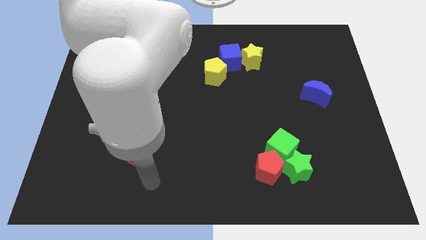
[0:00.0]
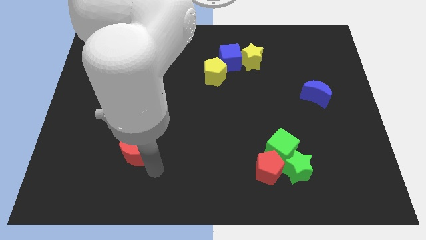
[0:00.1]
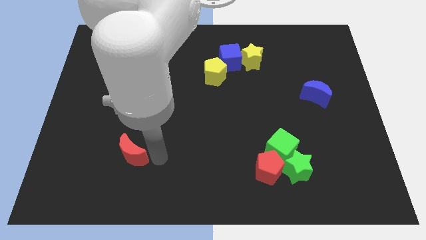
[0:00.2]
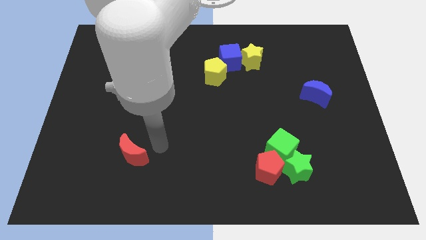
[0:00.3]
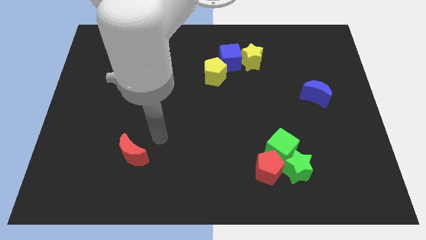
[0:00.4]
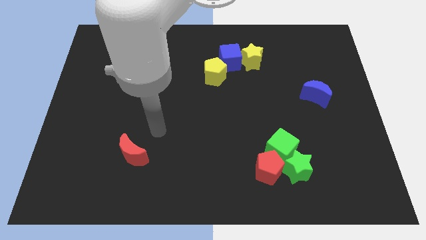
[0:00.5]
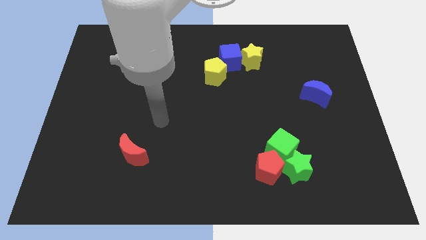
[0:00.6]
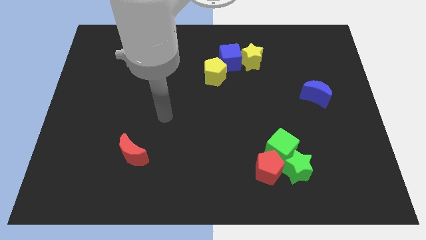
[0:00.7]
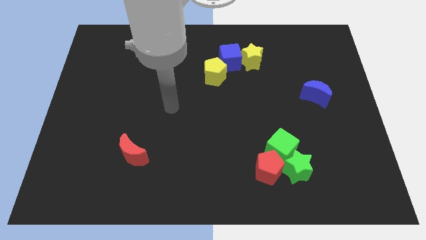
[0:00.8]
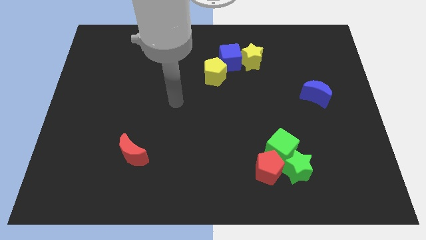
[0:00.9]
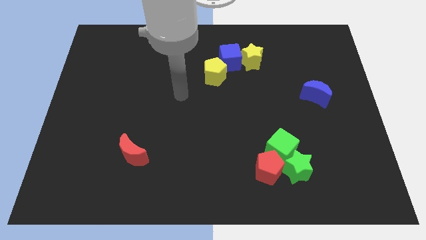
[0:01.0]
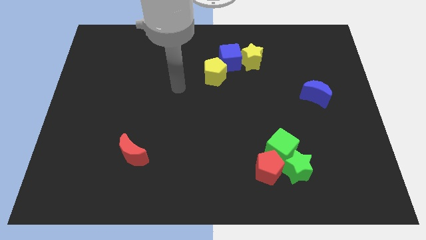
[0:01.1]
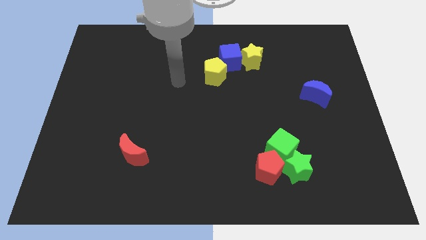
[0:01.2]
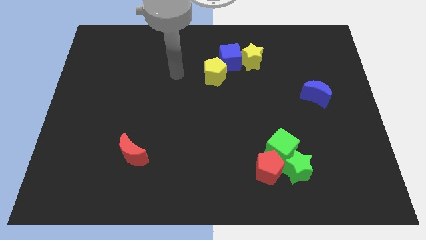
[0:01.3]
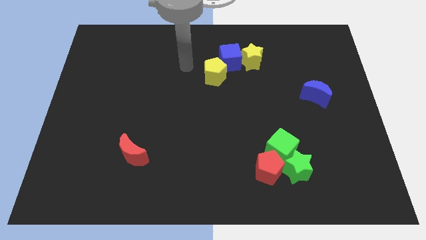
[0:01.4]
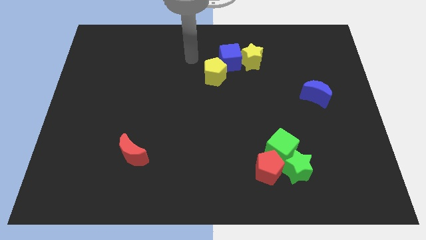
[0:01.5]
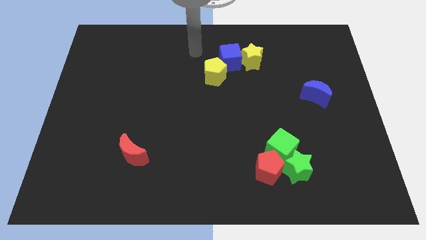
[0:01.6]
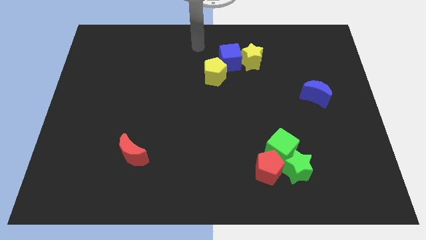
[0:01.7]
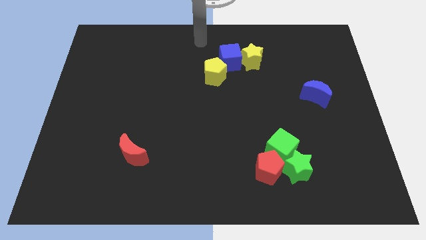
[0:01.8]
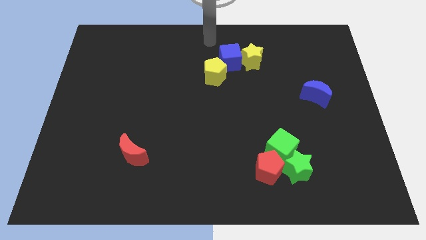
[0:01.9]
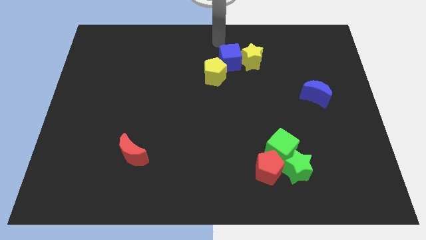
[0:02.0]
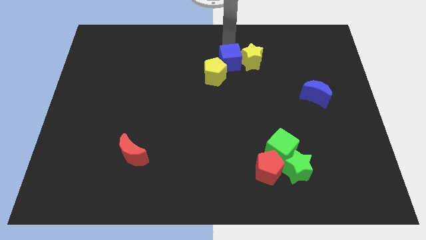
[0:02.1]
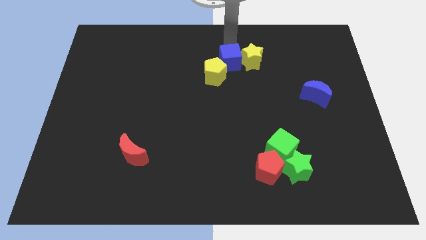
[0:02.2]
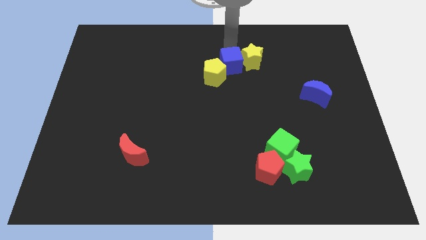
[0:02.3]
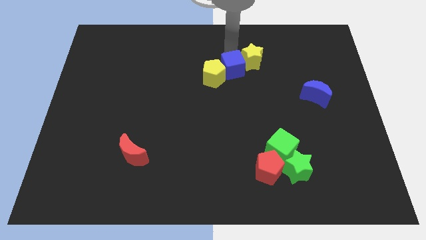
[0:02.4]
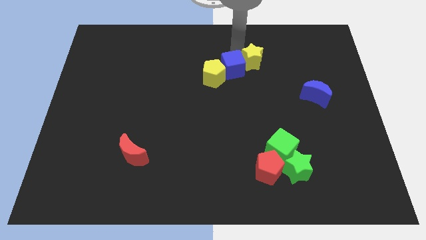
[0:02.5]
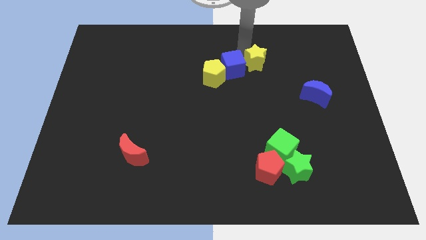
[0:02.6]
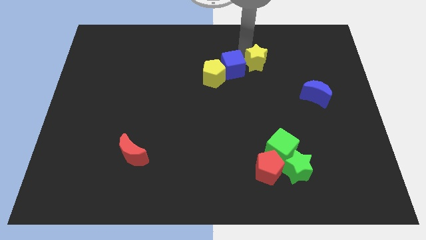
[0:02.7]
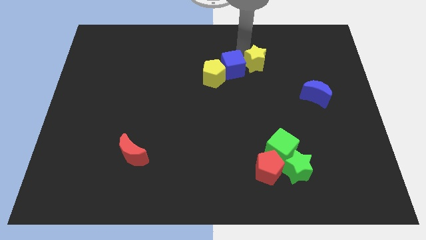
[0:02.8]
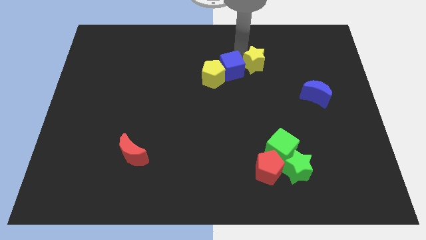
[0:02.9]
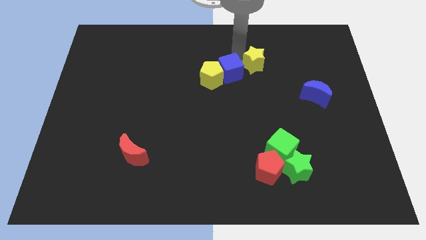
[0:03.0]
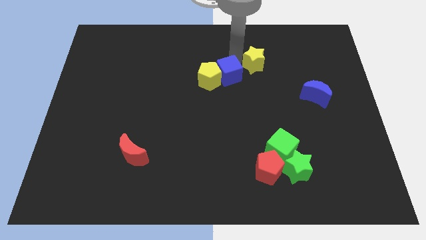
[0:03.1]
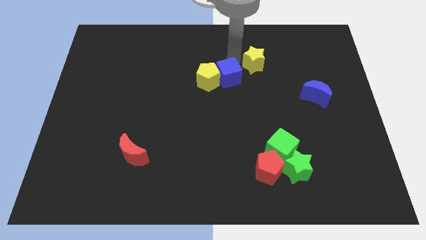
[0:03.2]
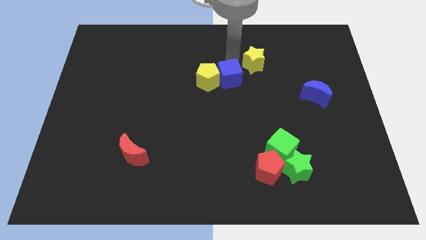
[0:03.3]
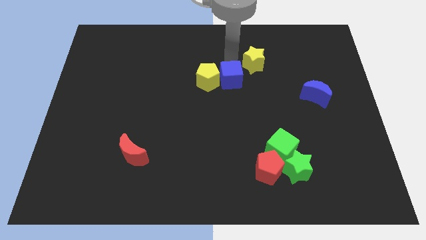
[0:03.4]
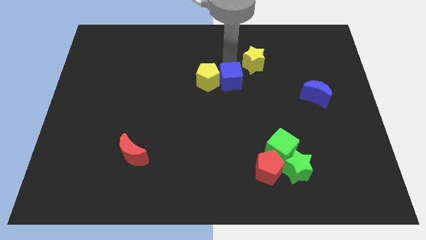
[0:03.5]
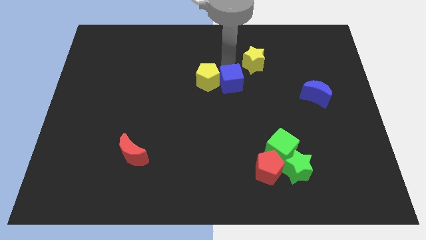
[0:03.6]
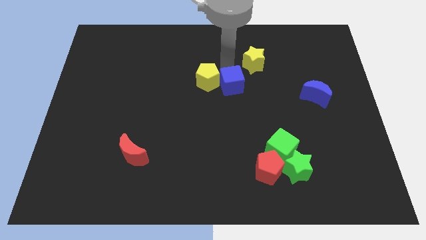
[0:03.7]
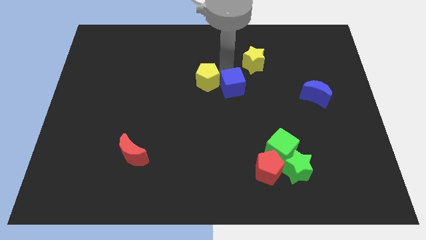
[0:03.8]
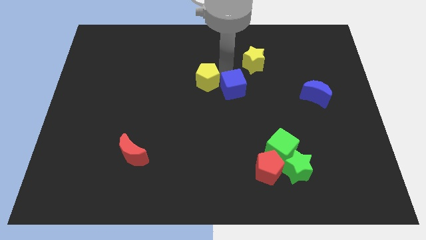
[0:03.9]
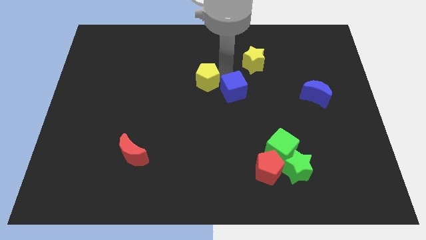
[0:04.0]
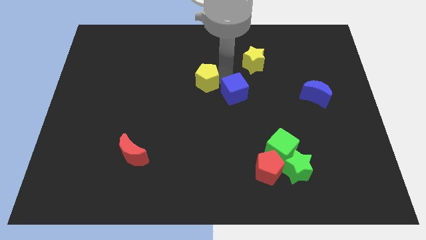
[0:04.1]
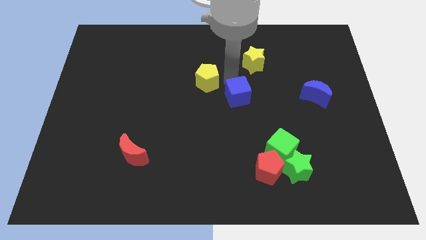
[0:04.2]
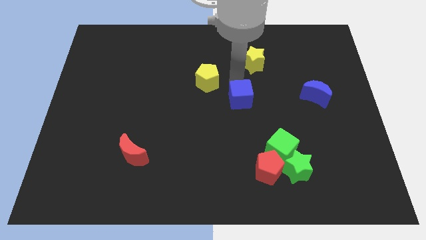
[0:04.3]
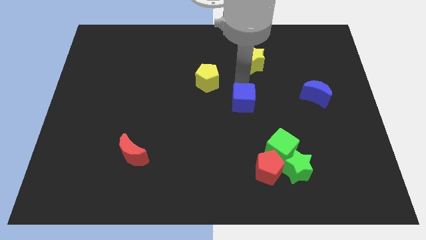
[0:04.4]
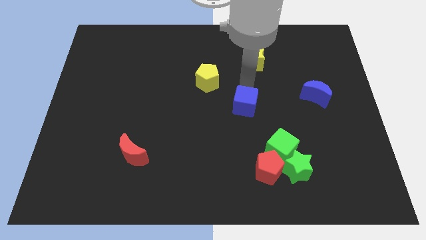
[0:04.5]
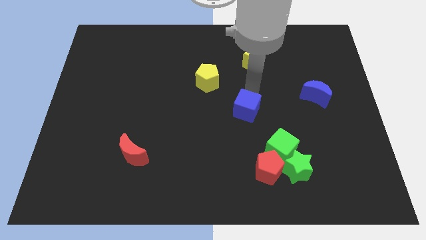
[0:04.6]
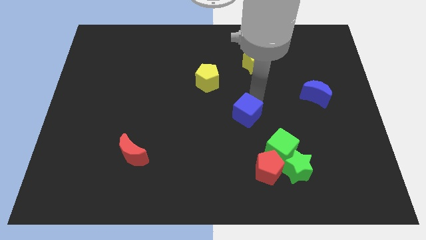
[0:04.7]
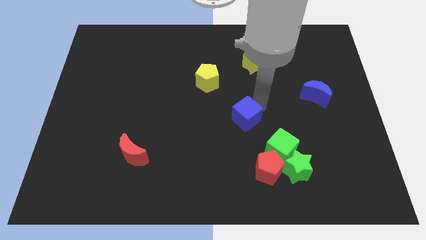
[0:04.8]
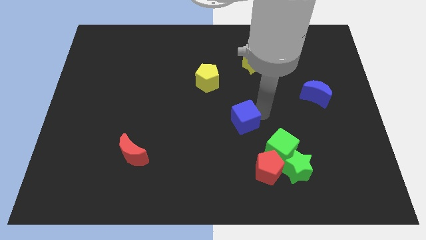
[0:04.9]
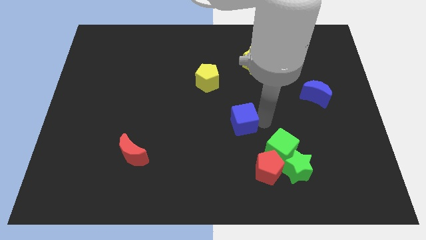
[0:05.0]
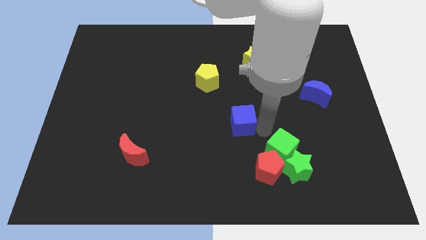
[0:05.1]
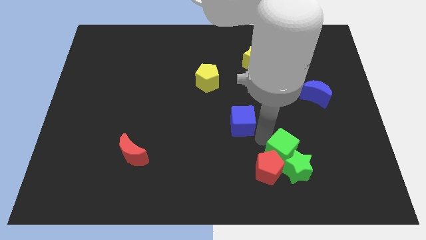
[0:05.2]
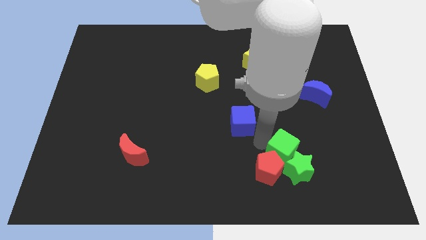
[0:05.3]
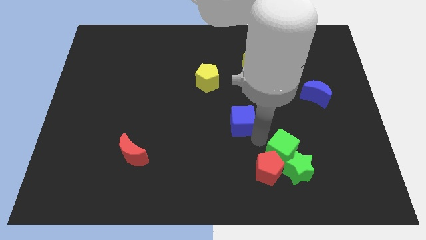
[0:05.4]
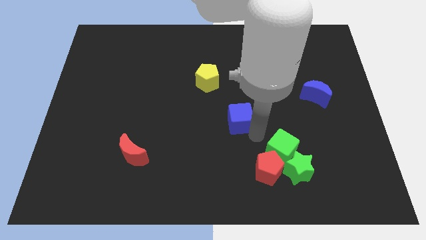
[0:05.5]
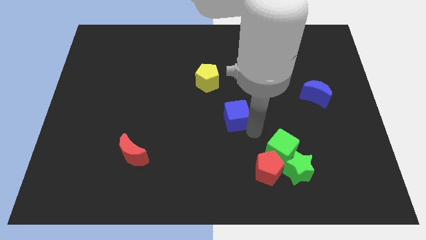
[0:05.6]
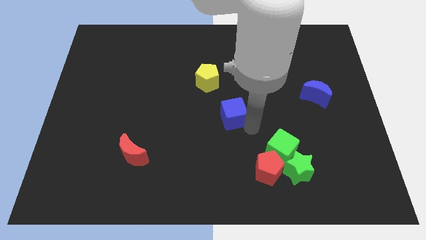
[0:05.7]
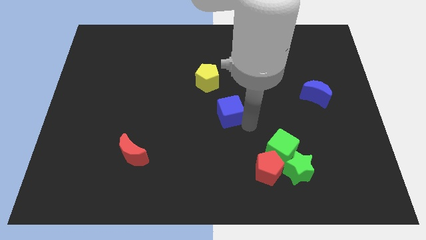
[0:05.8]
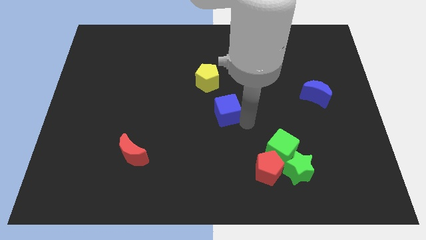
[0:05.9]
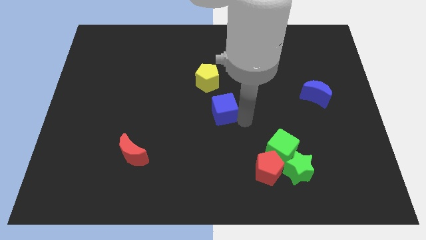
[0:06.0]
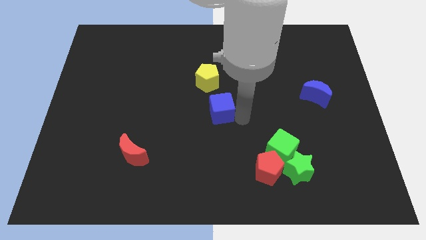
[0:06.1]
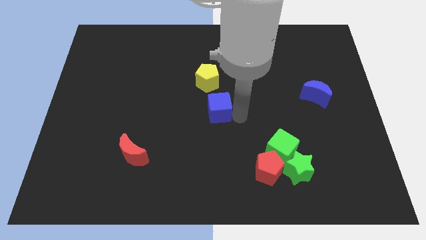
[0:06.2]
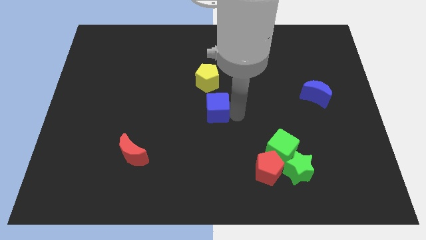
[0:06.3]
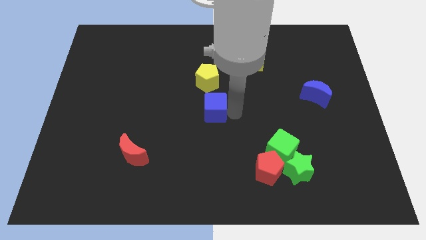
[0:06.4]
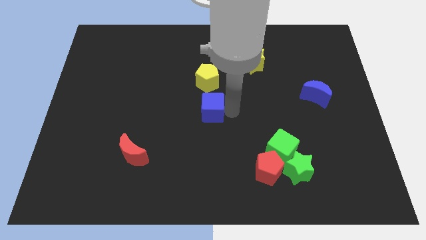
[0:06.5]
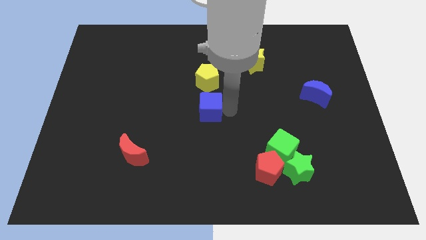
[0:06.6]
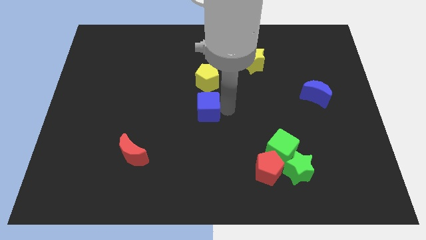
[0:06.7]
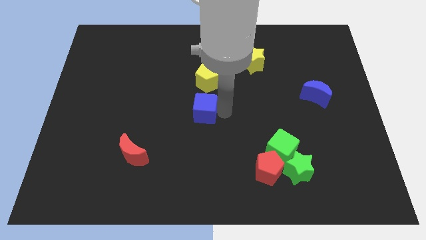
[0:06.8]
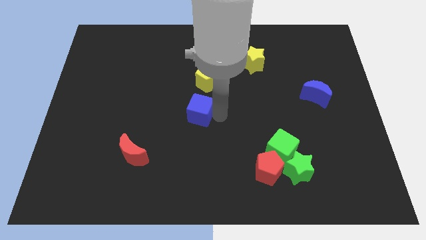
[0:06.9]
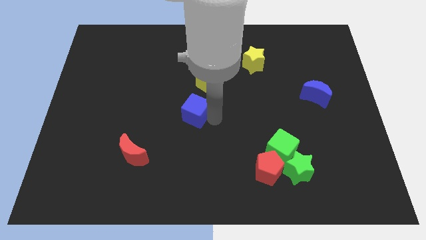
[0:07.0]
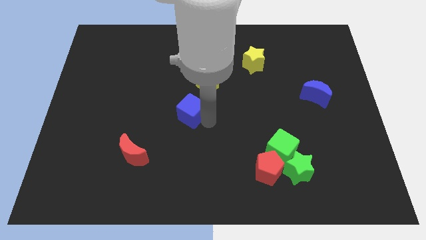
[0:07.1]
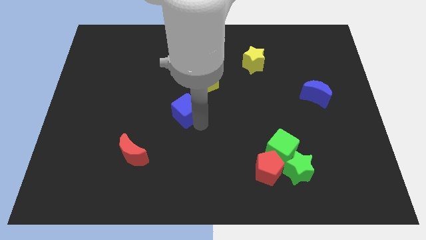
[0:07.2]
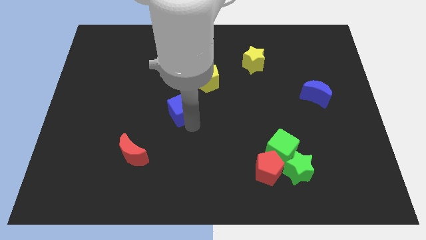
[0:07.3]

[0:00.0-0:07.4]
move the blue cube downwards and left

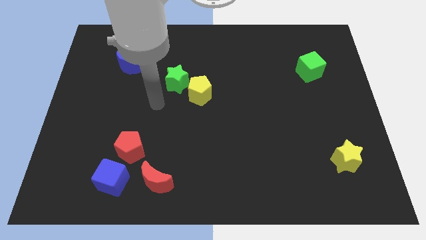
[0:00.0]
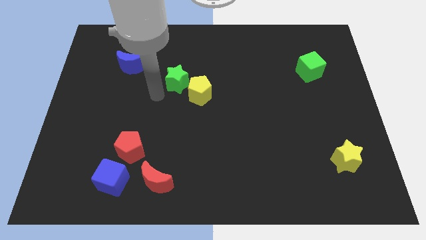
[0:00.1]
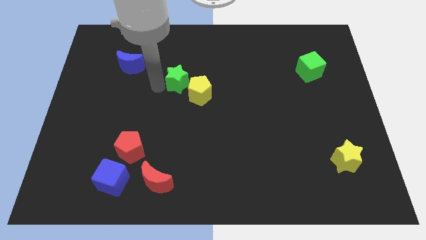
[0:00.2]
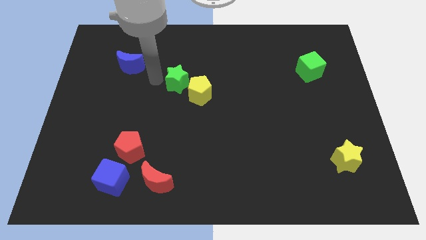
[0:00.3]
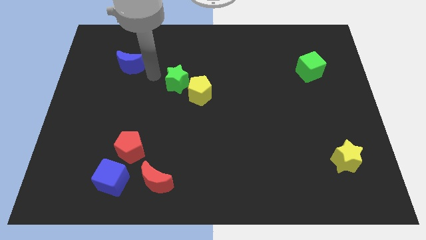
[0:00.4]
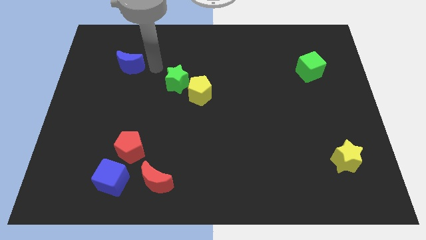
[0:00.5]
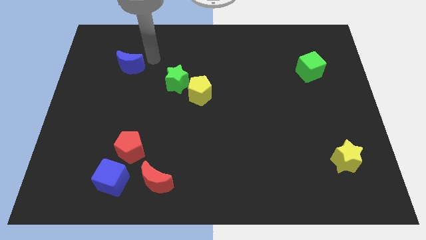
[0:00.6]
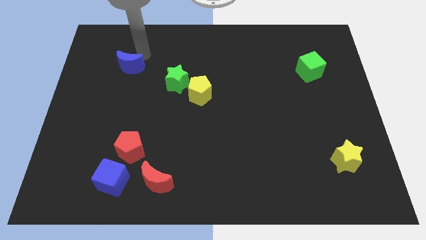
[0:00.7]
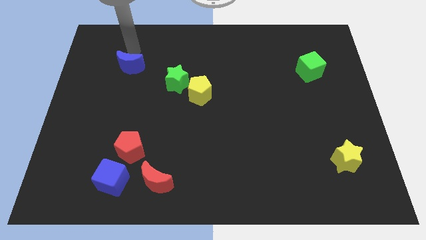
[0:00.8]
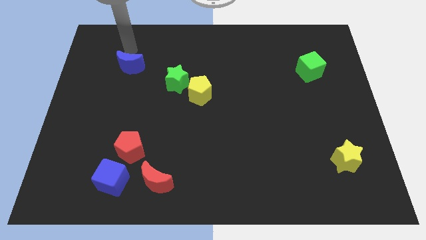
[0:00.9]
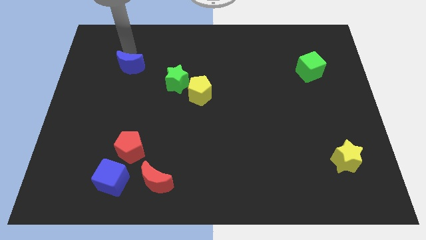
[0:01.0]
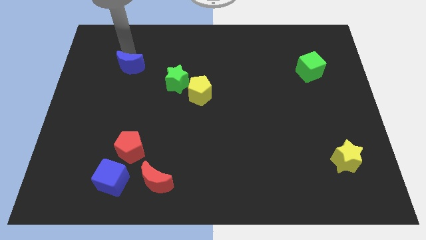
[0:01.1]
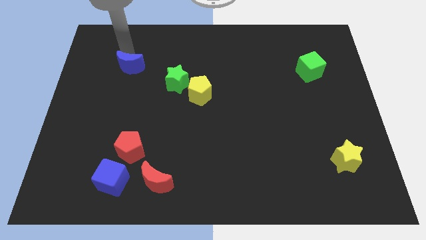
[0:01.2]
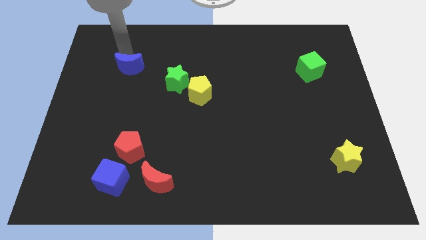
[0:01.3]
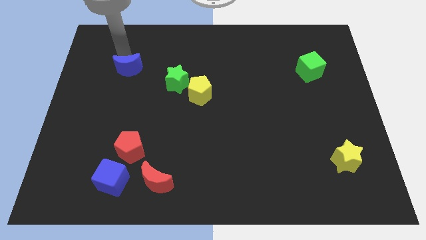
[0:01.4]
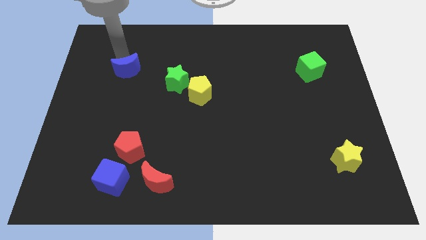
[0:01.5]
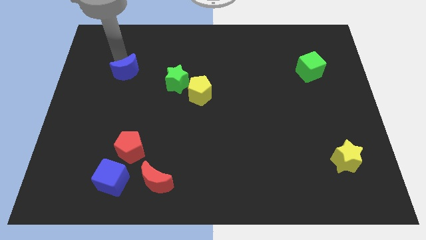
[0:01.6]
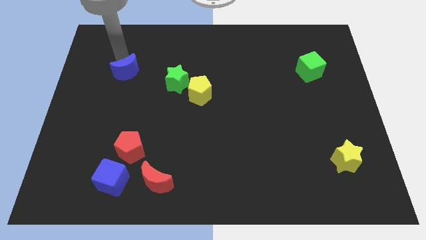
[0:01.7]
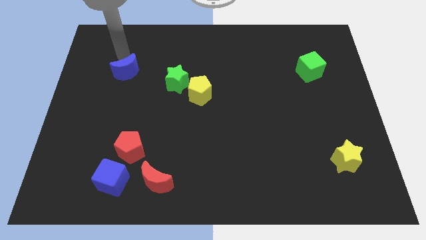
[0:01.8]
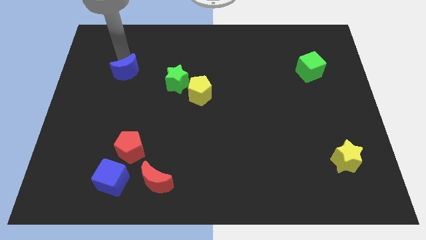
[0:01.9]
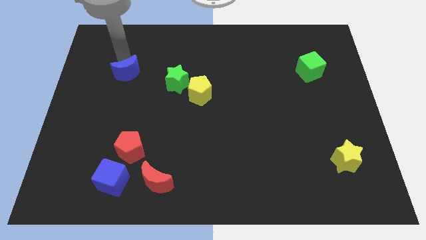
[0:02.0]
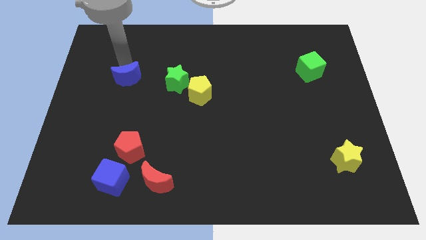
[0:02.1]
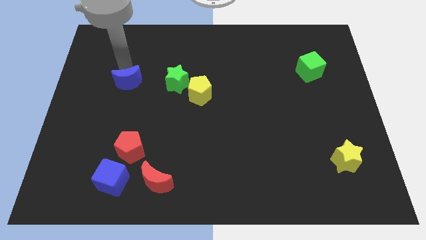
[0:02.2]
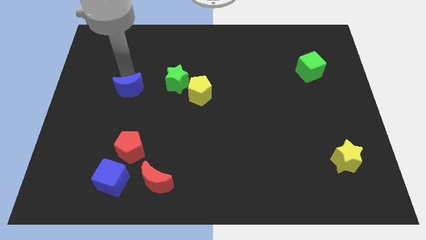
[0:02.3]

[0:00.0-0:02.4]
slightly slide the blue moon downwards
